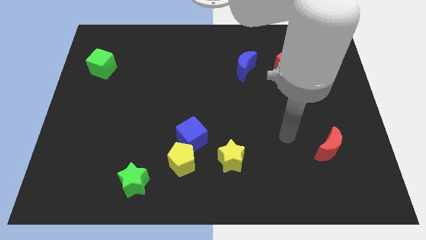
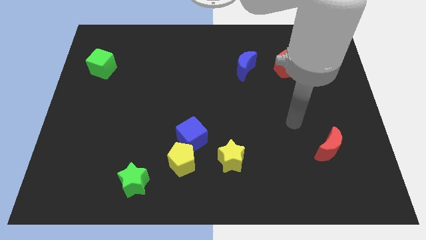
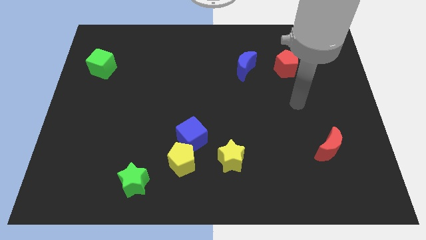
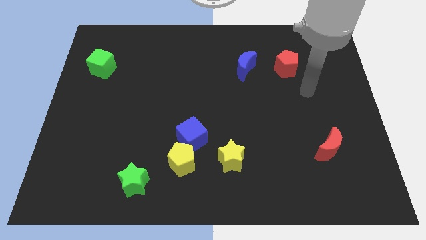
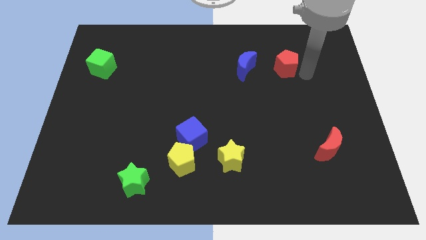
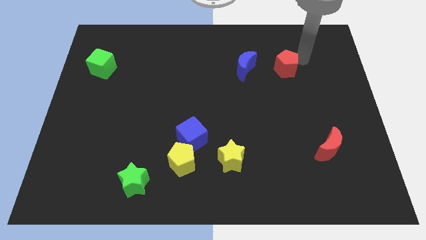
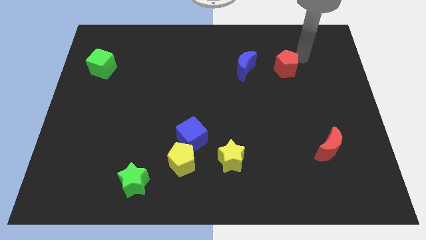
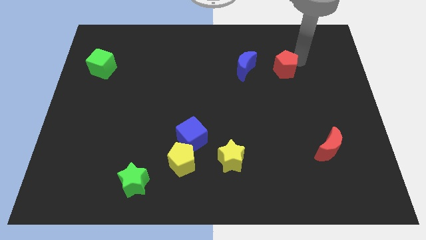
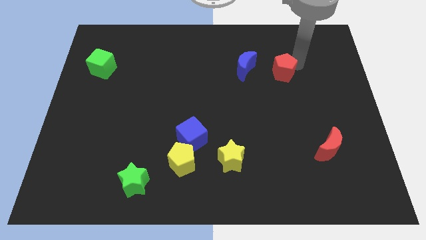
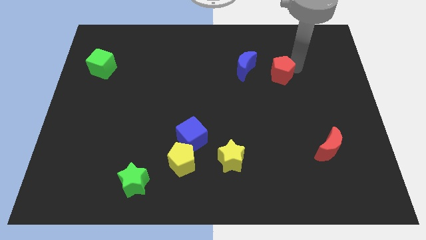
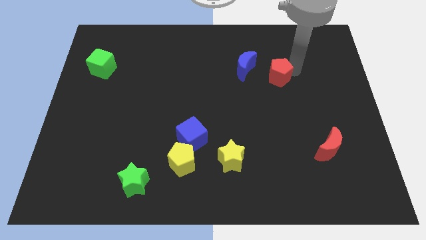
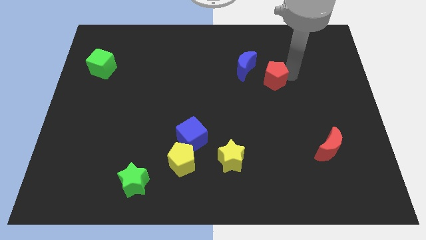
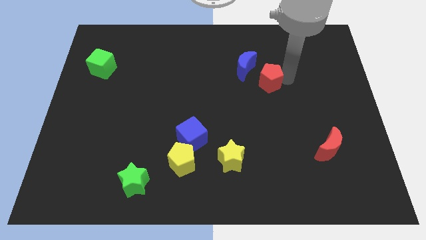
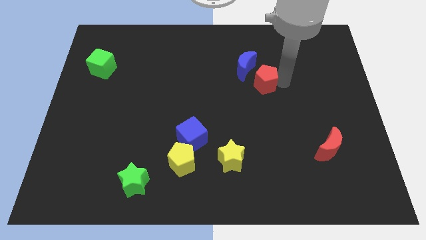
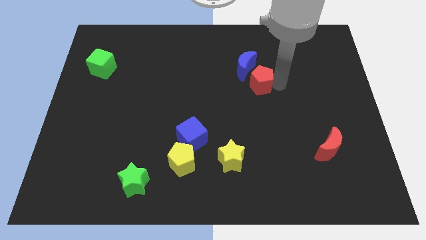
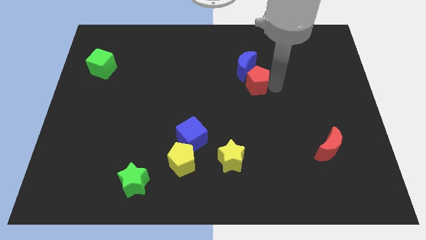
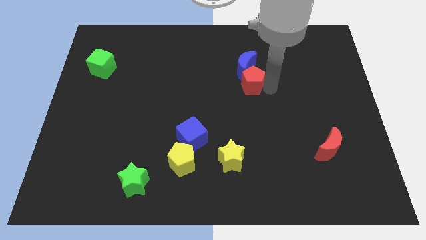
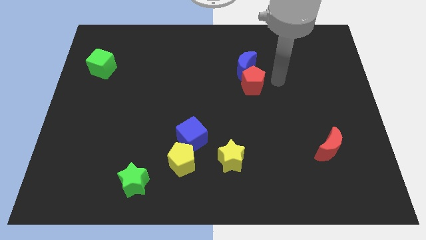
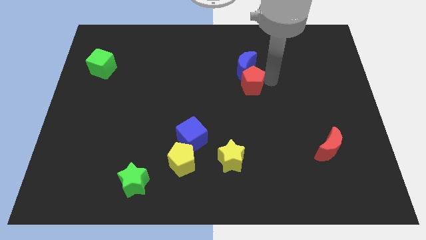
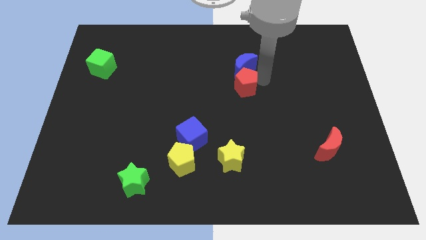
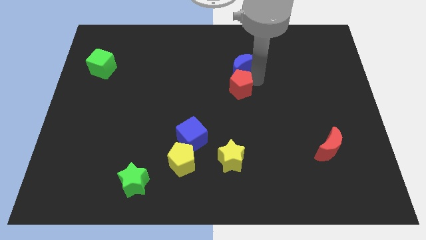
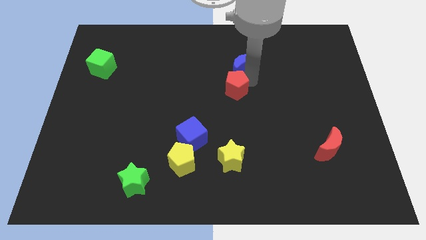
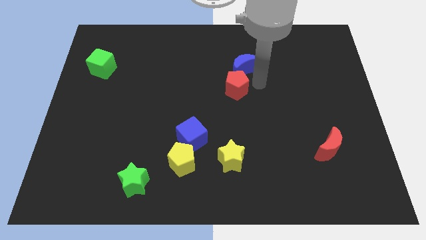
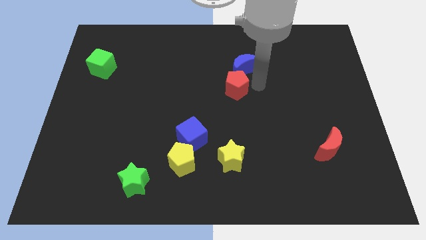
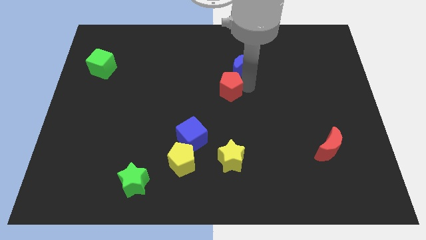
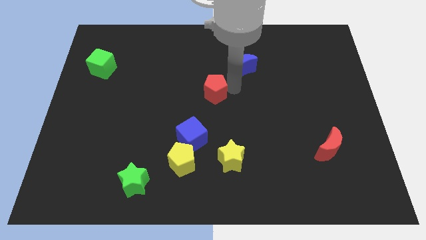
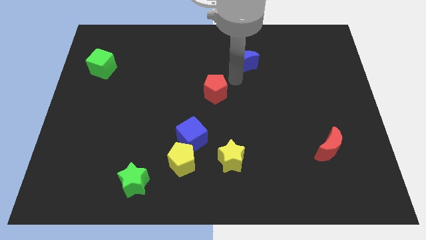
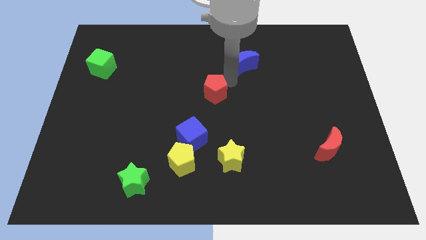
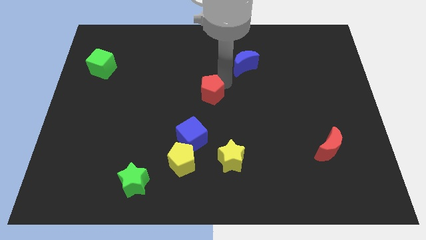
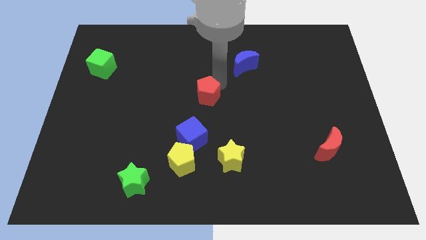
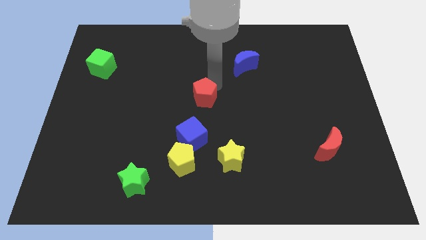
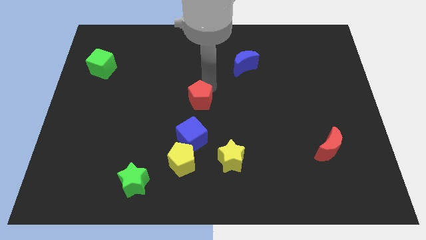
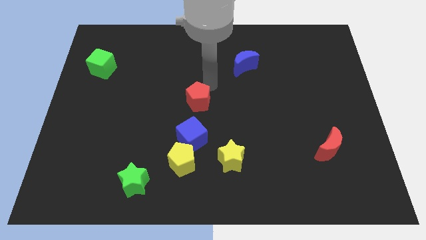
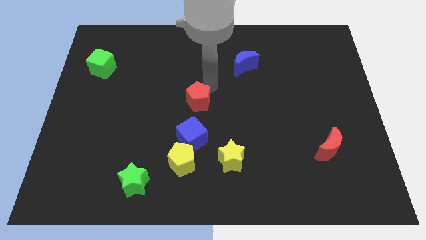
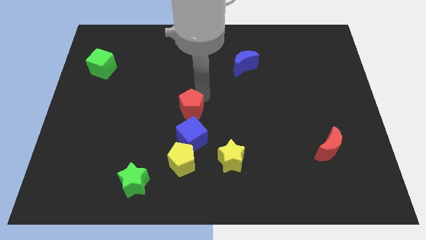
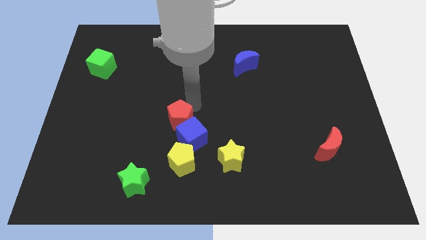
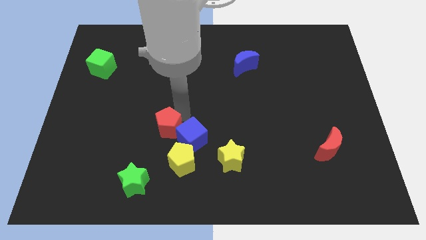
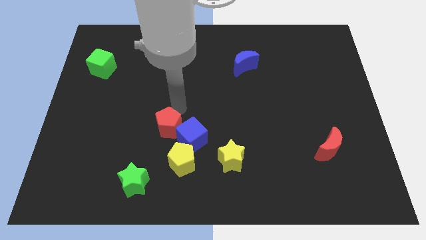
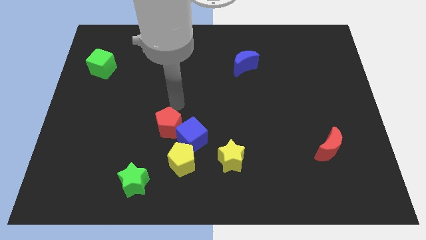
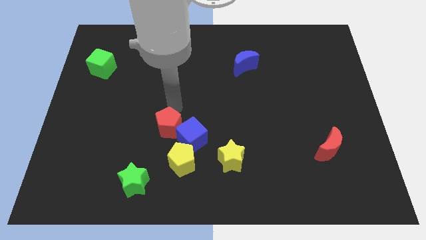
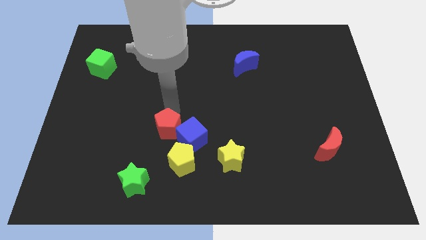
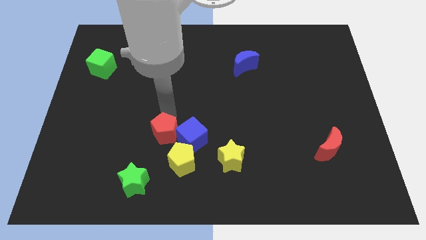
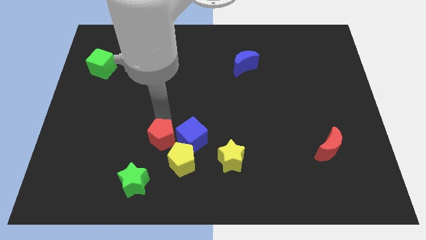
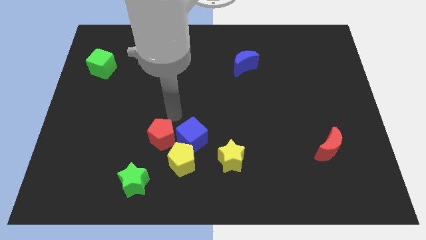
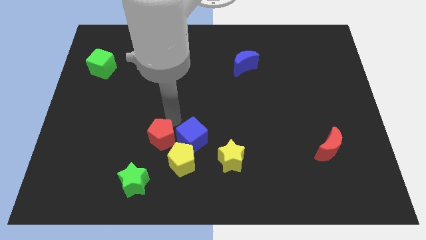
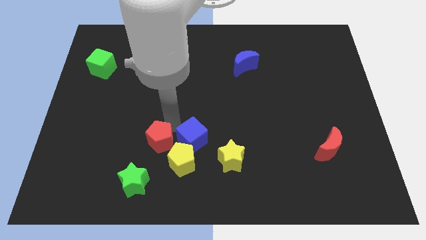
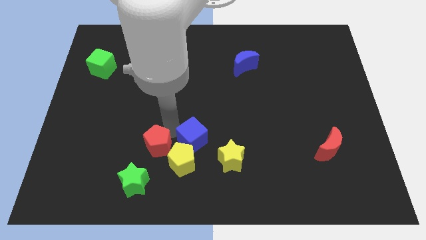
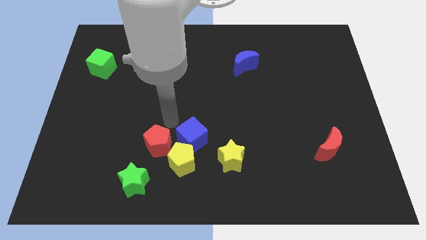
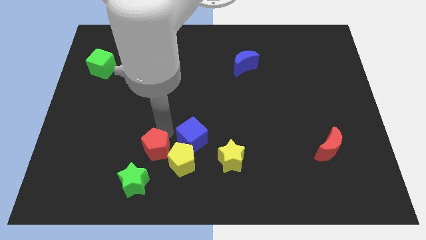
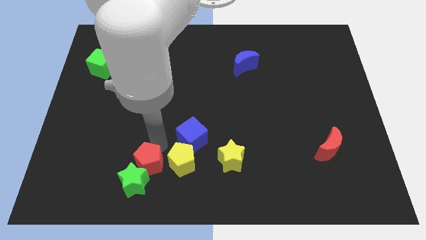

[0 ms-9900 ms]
push the red pentagon to the green star

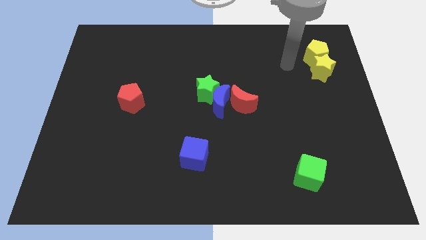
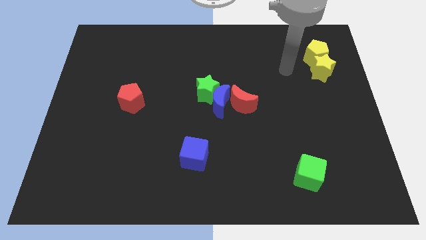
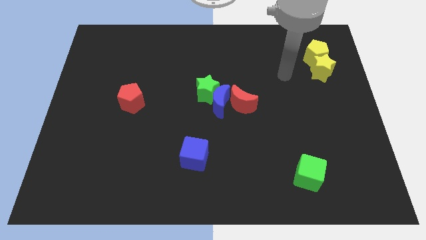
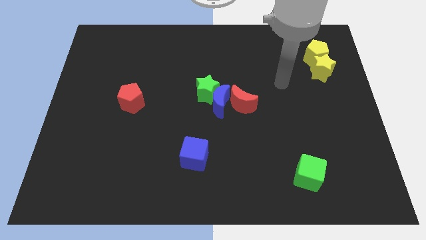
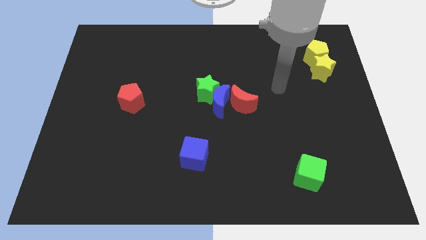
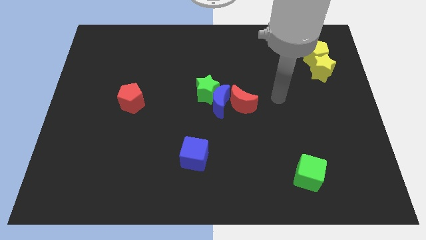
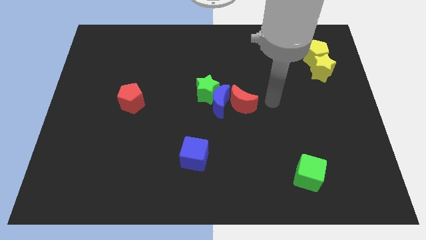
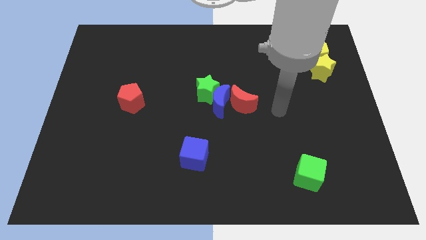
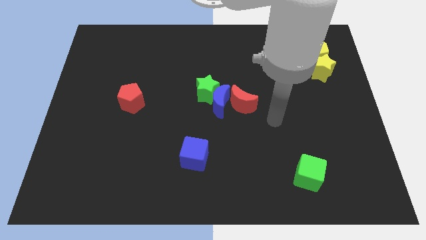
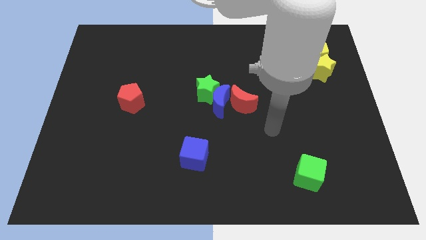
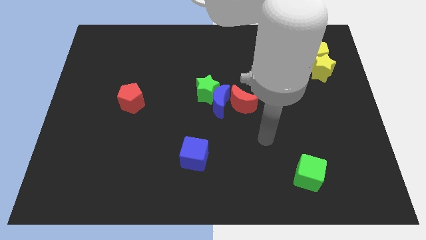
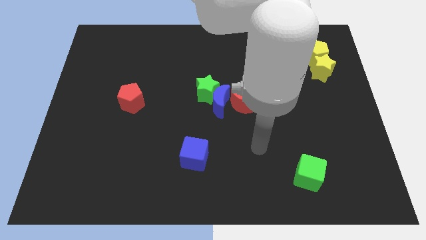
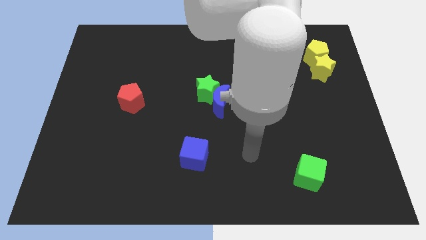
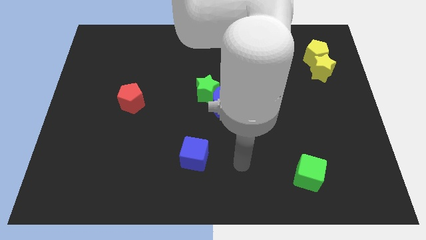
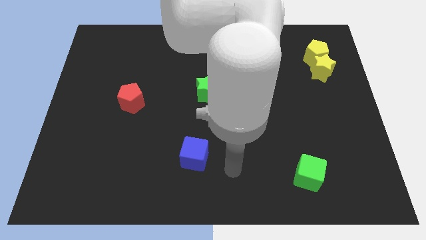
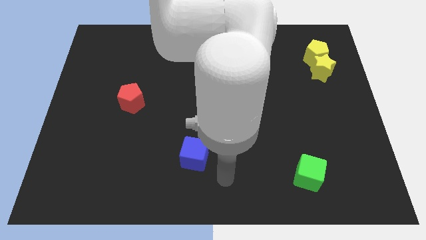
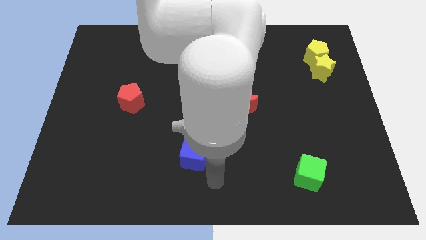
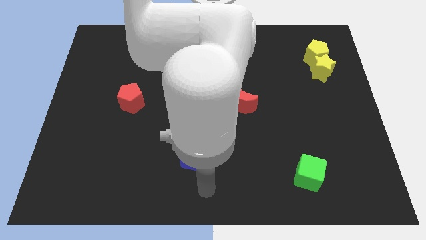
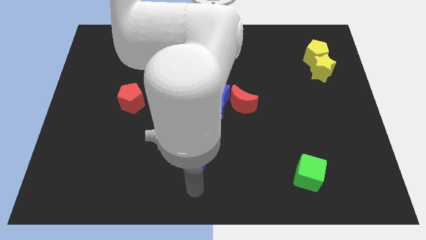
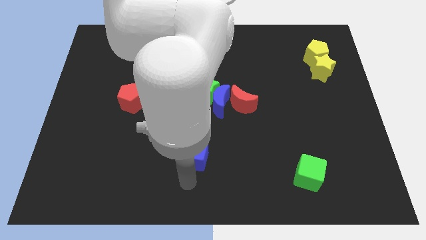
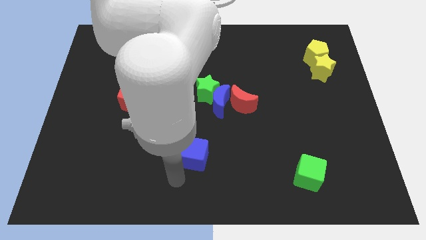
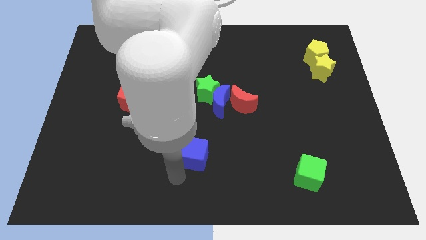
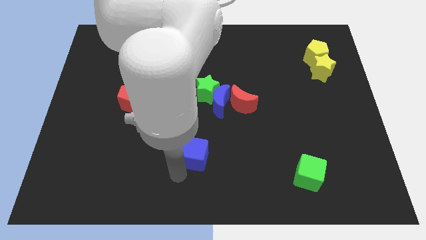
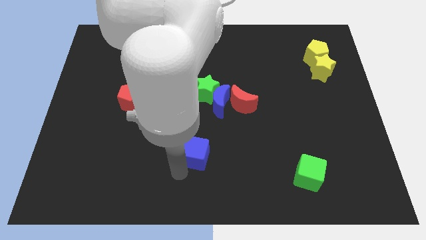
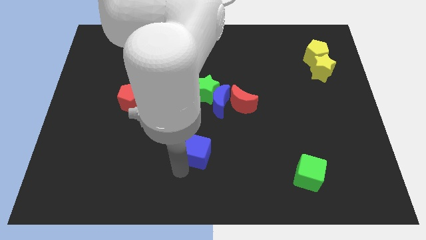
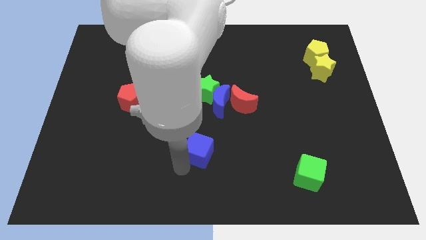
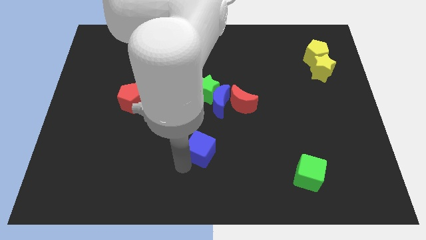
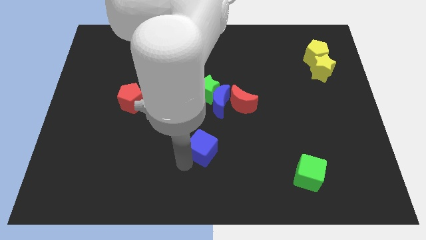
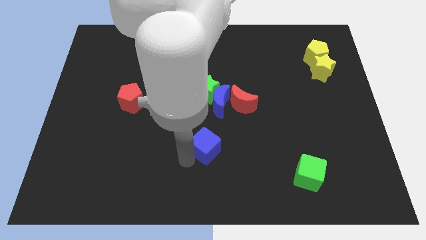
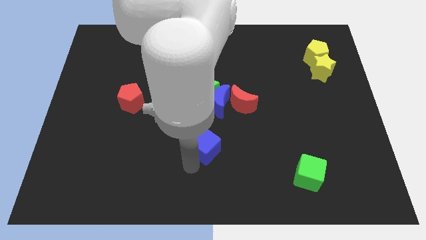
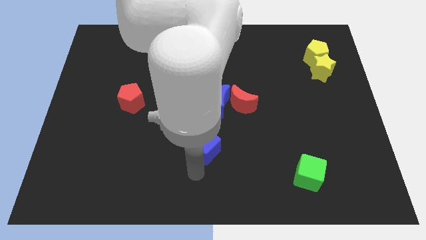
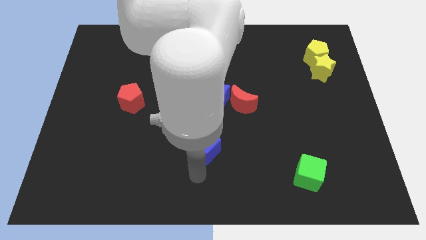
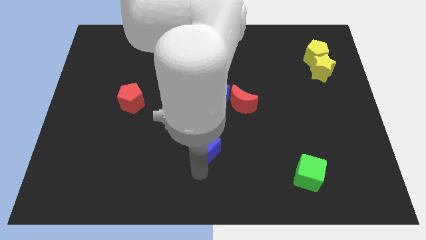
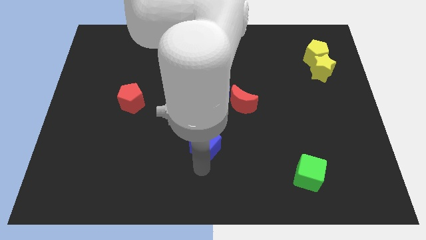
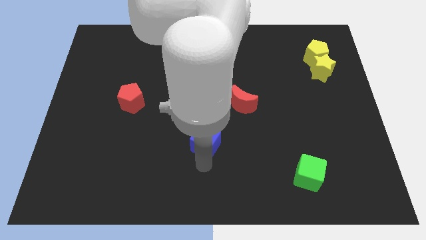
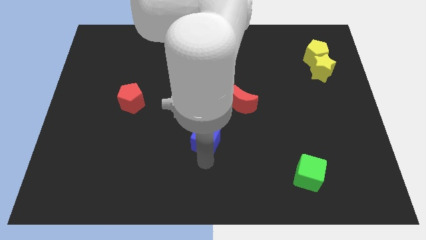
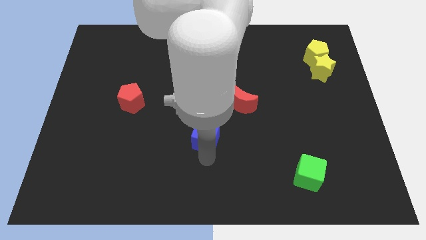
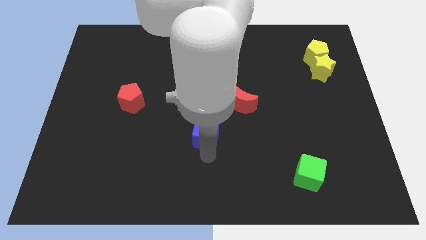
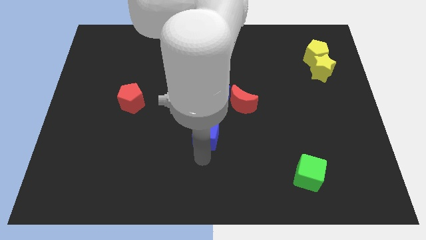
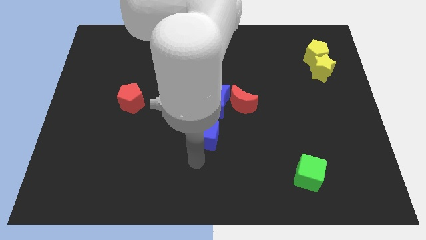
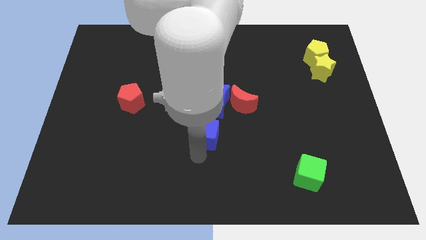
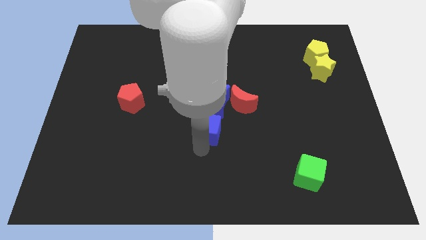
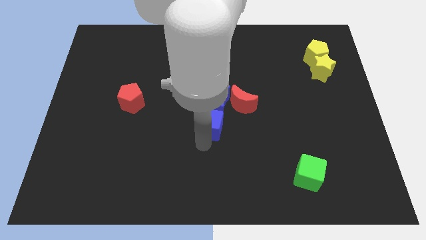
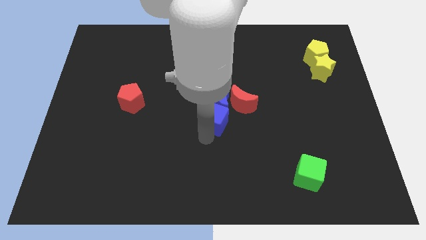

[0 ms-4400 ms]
slide the blue cube next to the blue moon
